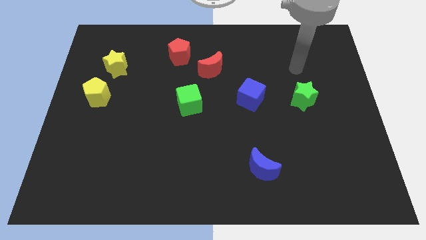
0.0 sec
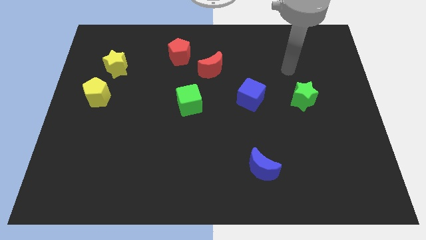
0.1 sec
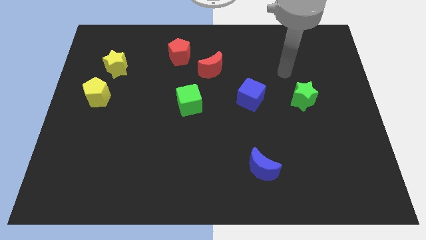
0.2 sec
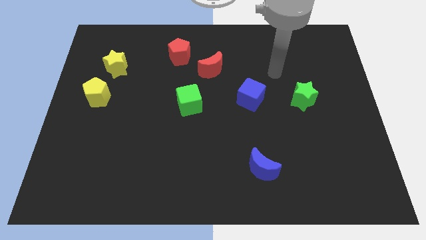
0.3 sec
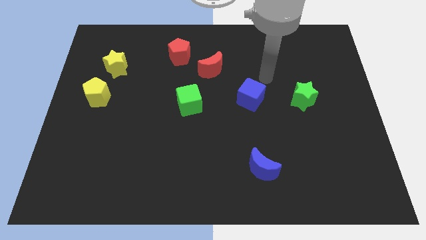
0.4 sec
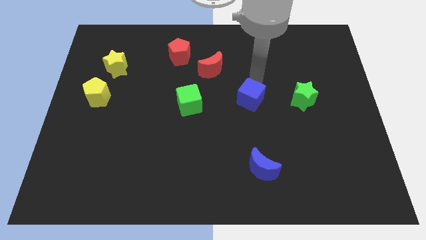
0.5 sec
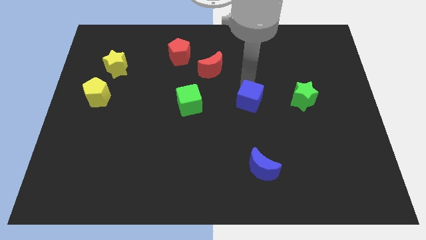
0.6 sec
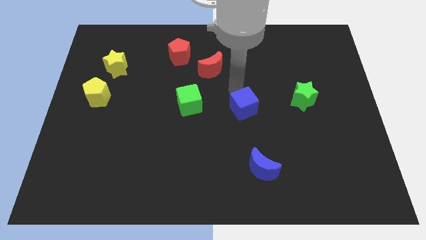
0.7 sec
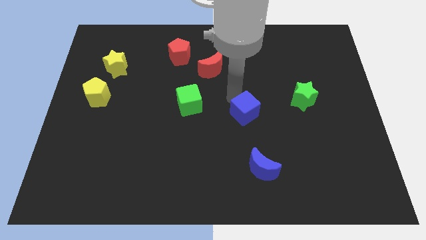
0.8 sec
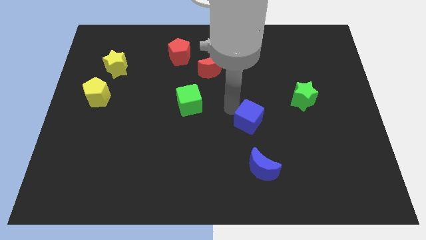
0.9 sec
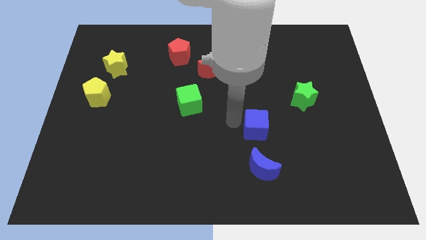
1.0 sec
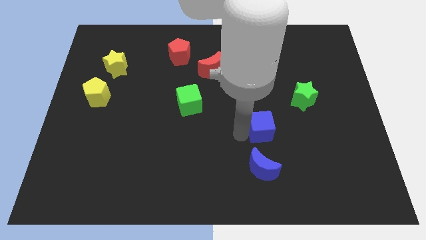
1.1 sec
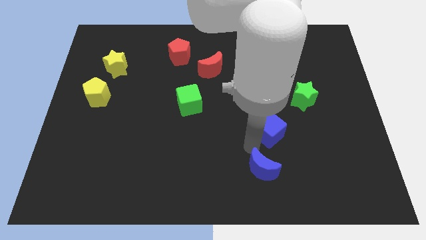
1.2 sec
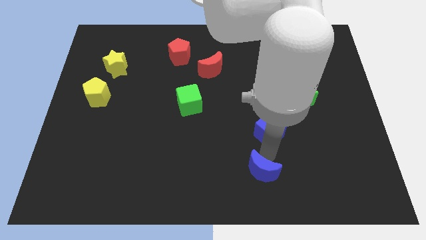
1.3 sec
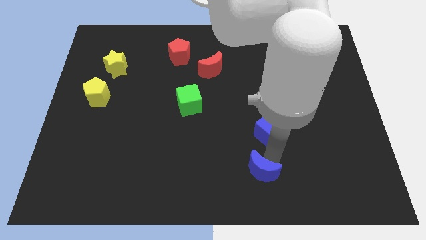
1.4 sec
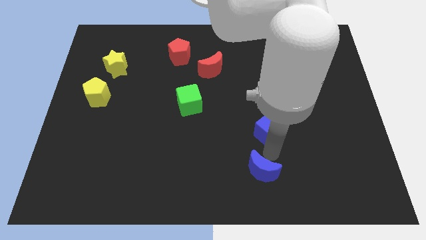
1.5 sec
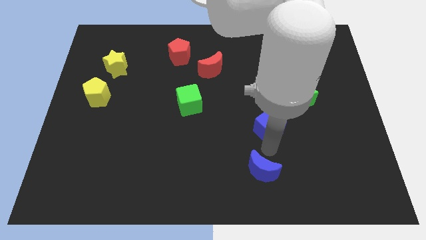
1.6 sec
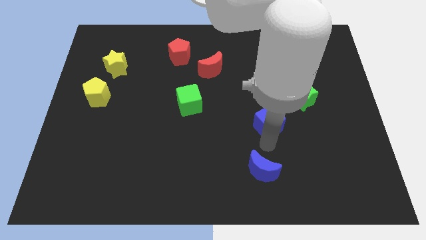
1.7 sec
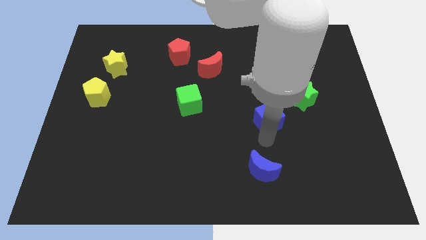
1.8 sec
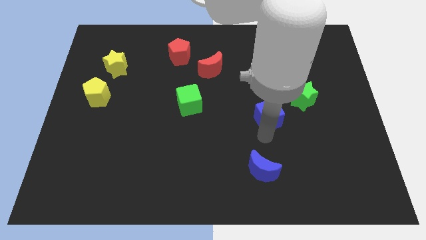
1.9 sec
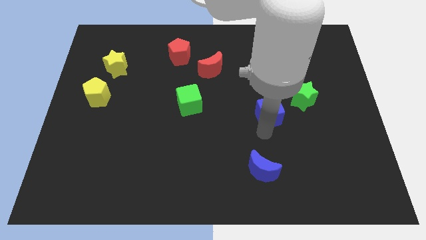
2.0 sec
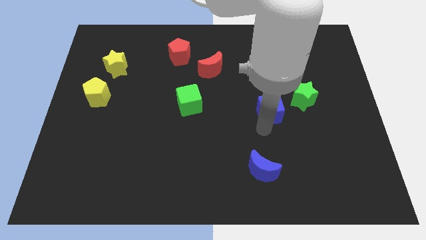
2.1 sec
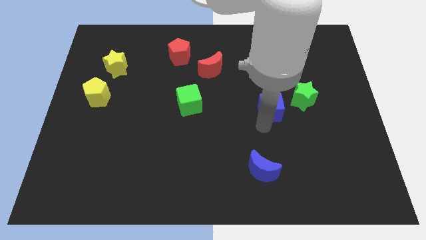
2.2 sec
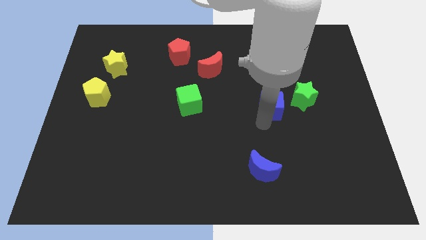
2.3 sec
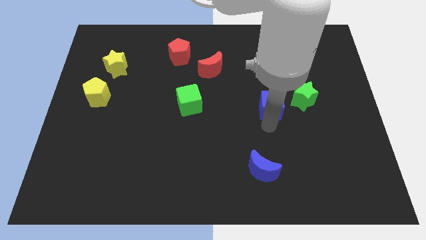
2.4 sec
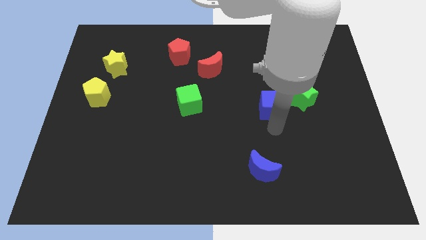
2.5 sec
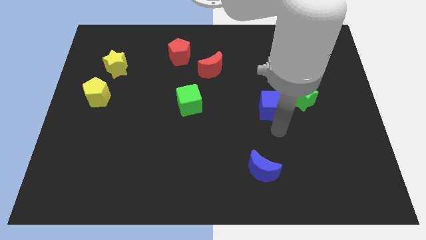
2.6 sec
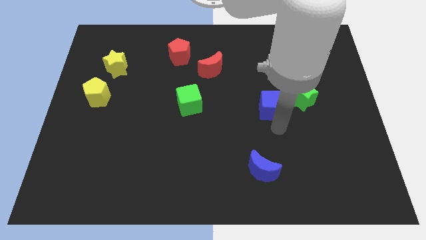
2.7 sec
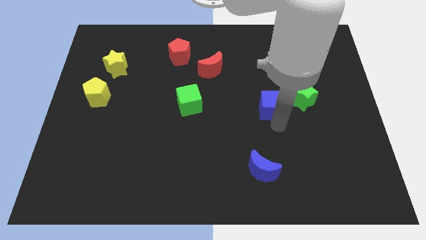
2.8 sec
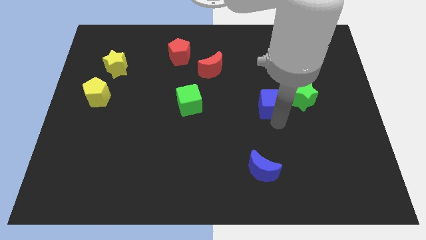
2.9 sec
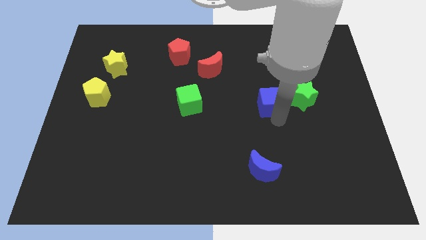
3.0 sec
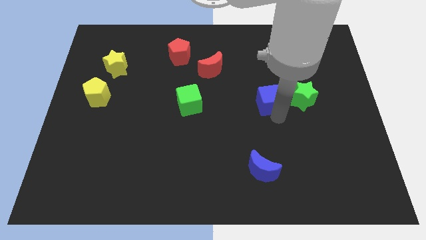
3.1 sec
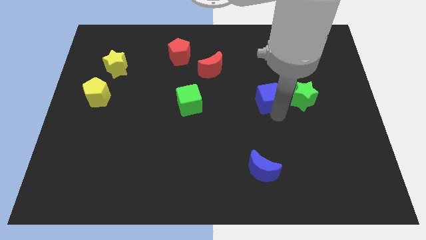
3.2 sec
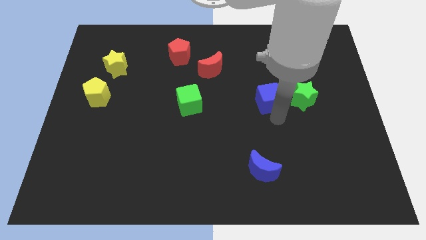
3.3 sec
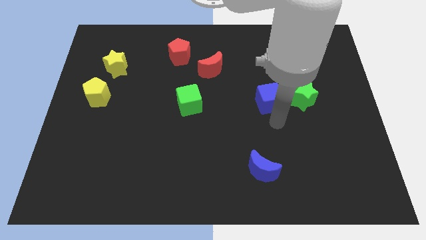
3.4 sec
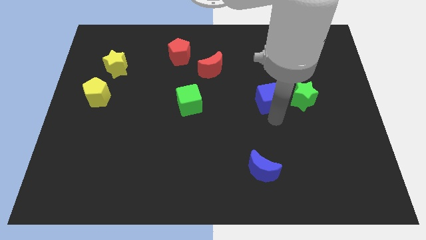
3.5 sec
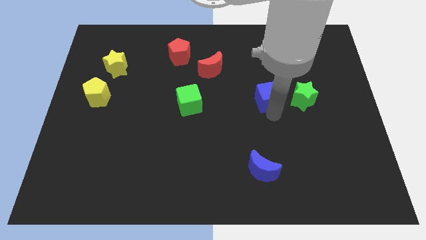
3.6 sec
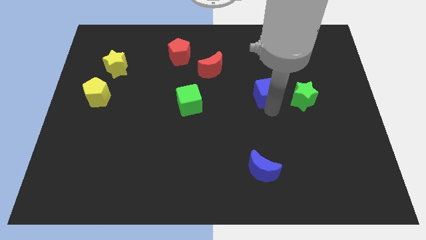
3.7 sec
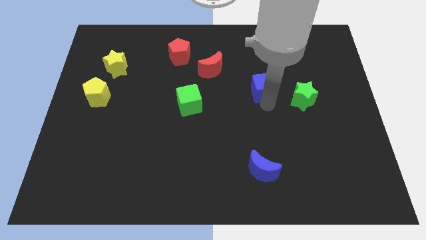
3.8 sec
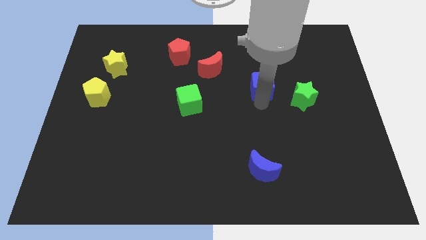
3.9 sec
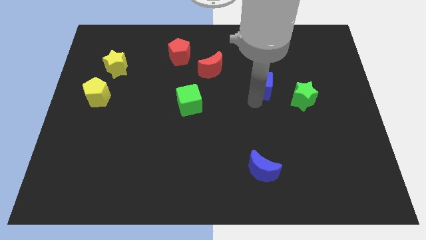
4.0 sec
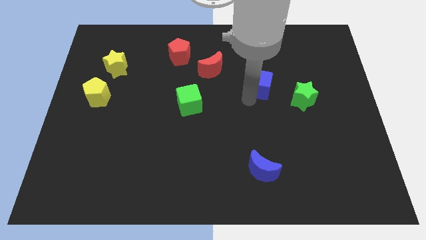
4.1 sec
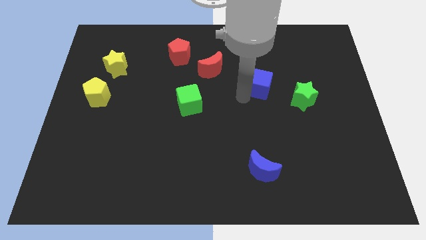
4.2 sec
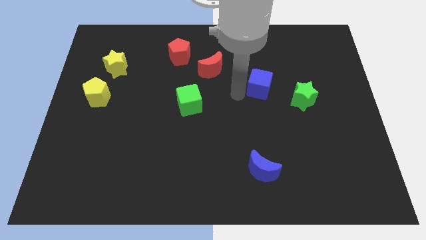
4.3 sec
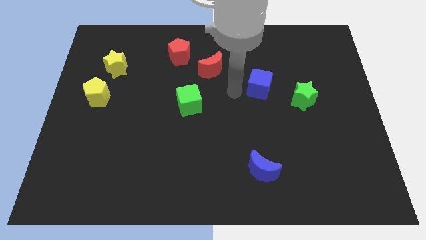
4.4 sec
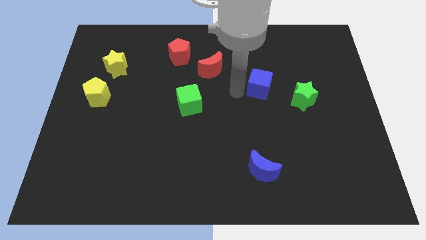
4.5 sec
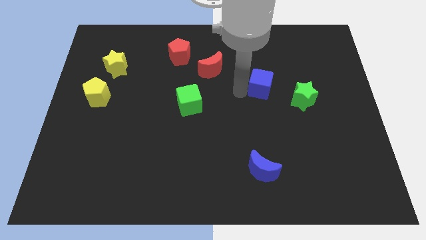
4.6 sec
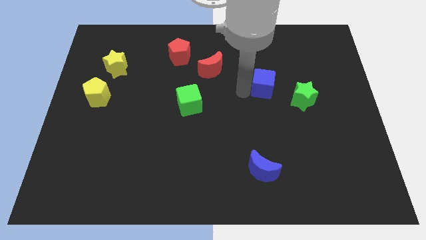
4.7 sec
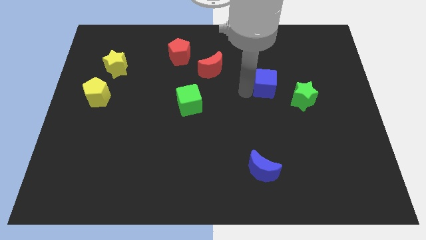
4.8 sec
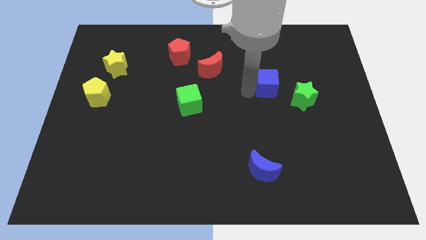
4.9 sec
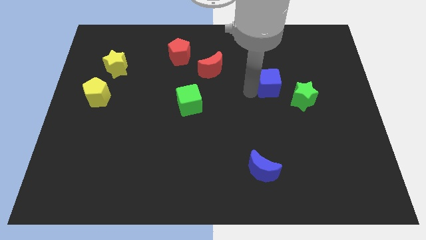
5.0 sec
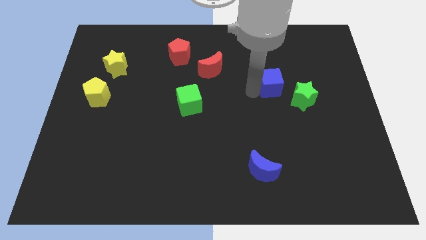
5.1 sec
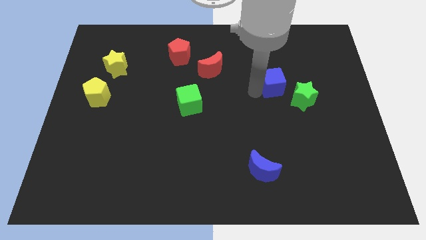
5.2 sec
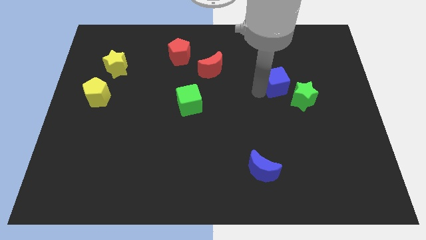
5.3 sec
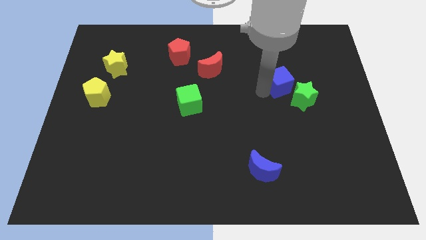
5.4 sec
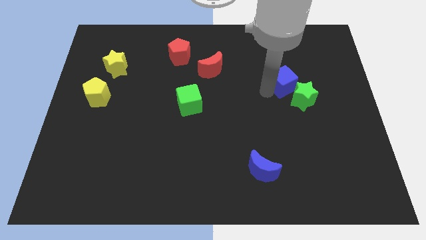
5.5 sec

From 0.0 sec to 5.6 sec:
slide the blue cube to the top side of the green star

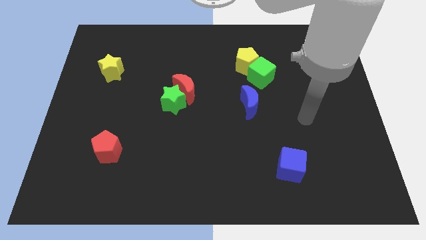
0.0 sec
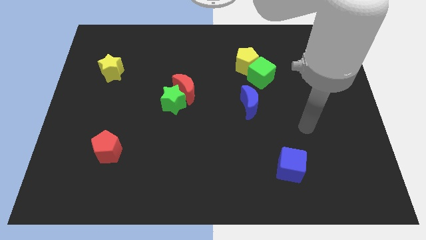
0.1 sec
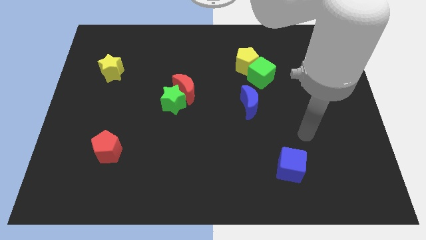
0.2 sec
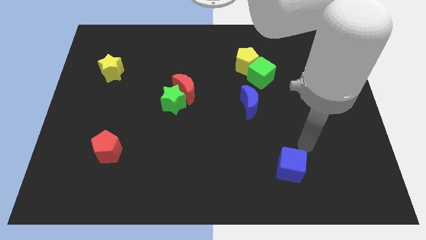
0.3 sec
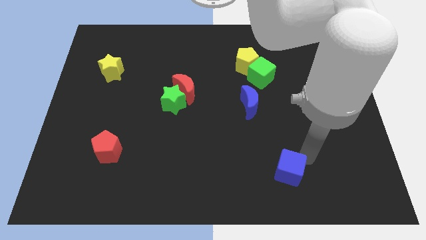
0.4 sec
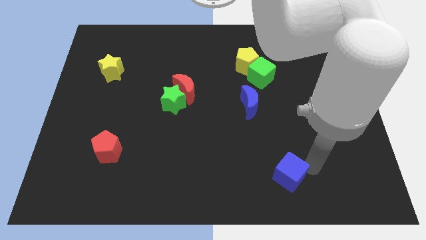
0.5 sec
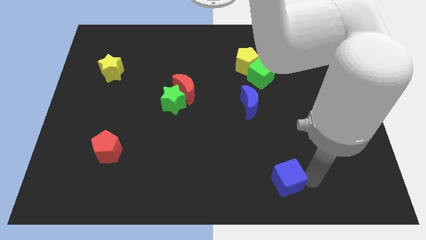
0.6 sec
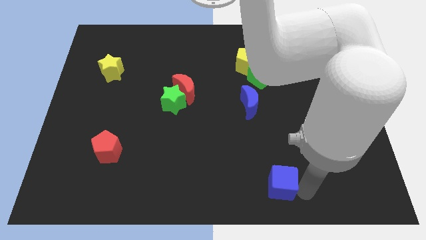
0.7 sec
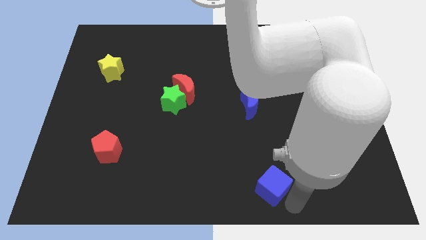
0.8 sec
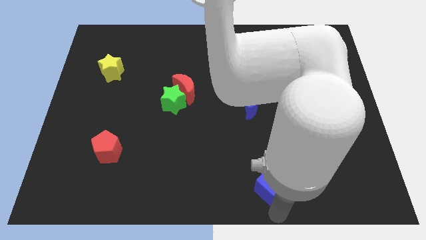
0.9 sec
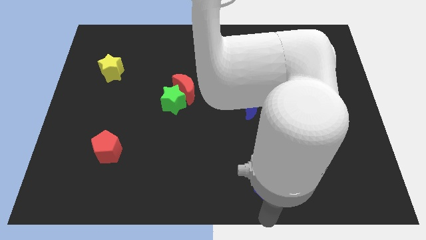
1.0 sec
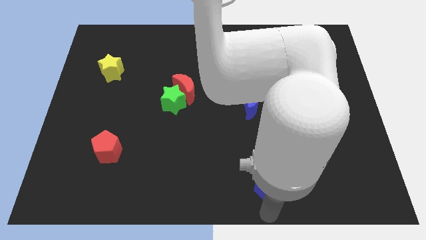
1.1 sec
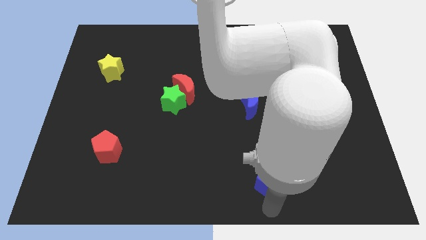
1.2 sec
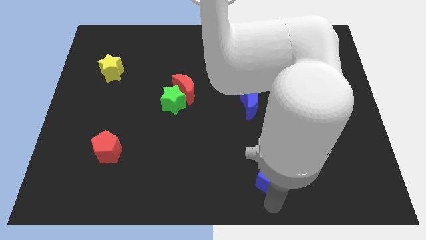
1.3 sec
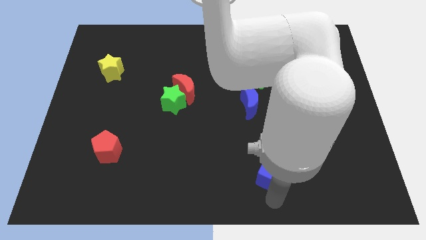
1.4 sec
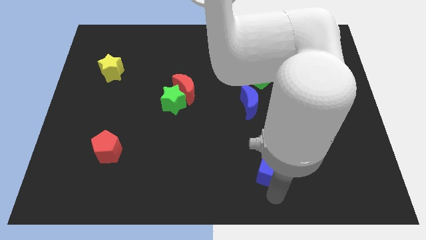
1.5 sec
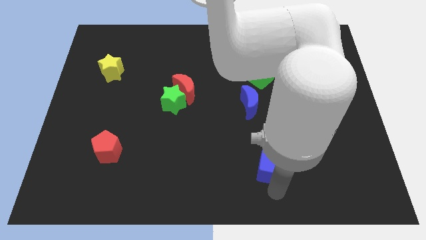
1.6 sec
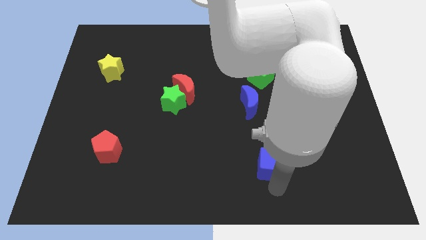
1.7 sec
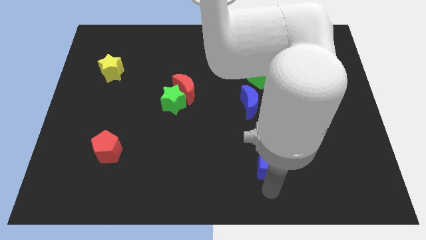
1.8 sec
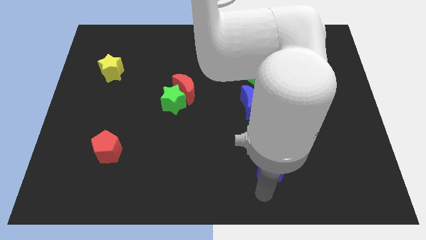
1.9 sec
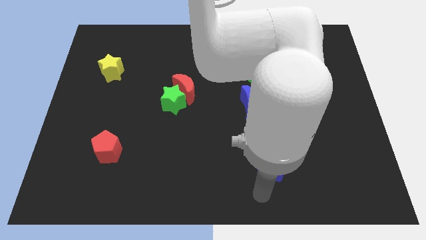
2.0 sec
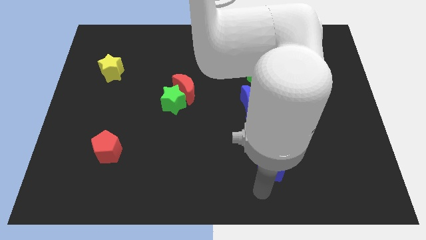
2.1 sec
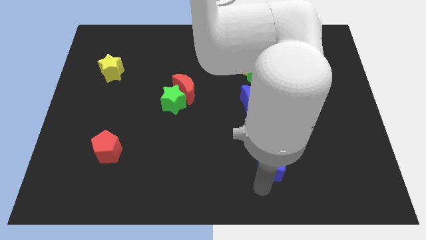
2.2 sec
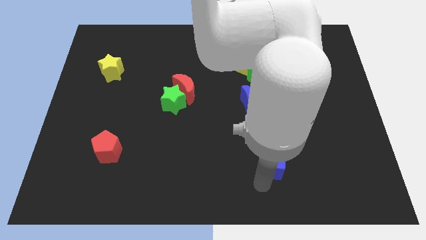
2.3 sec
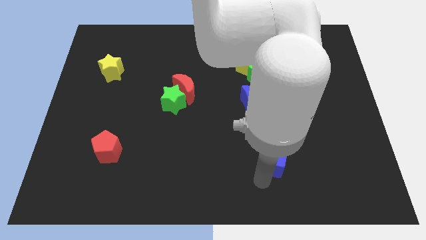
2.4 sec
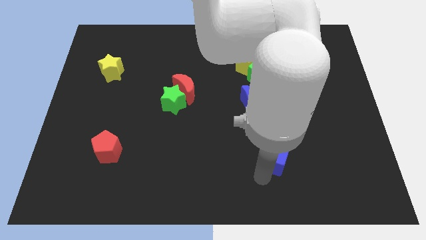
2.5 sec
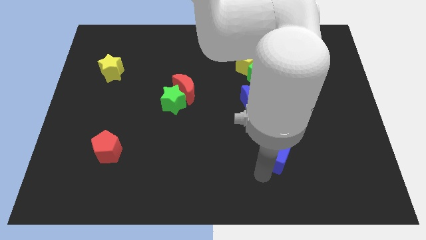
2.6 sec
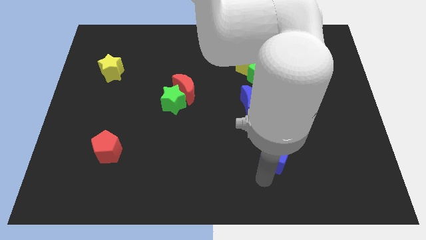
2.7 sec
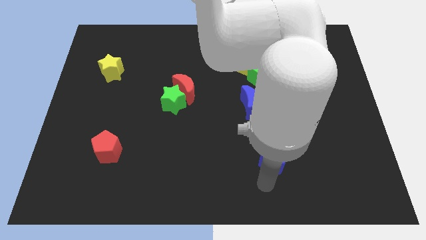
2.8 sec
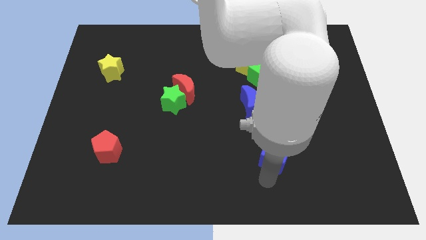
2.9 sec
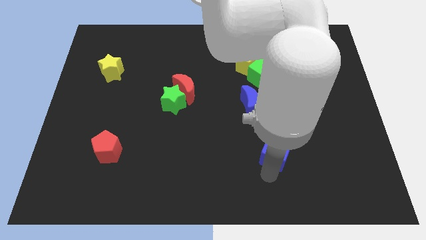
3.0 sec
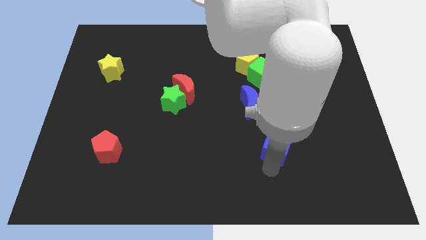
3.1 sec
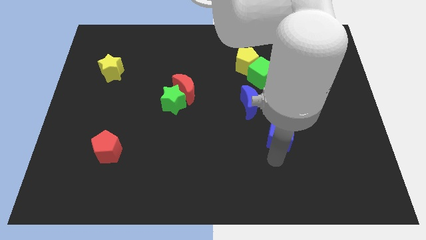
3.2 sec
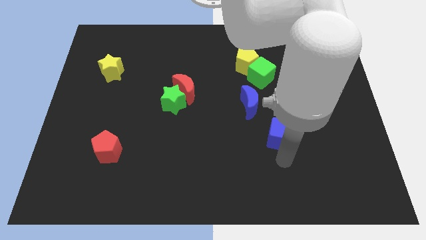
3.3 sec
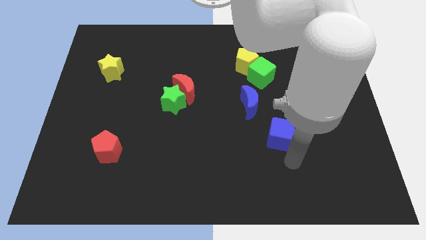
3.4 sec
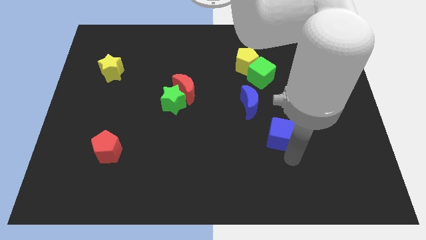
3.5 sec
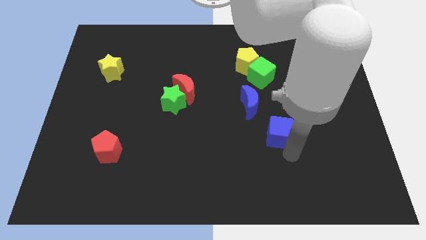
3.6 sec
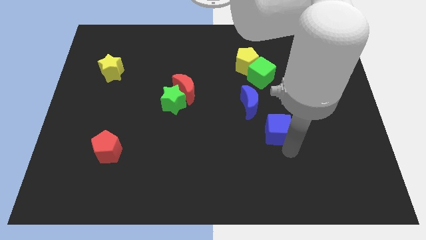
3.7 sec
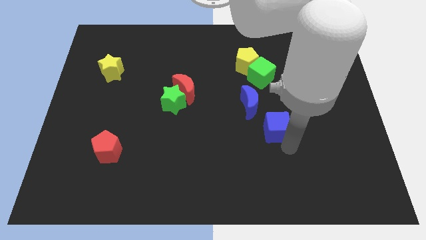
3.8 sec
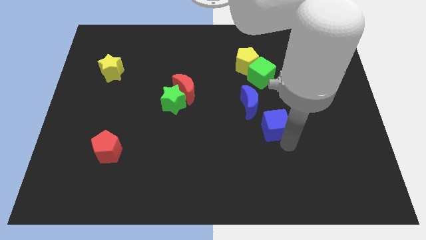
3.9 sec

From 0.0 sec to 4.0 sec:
move the blue cube to the bottom side of the green cube
